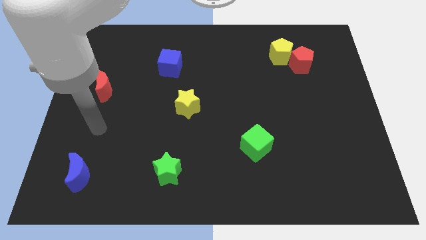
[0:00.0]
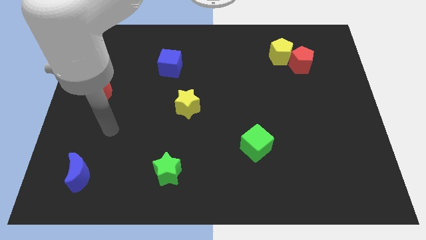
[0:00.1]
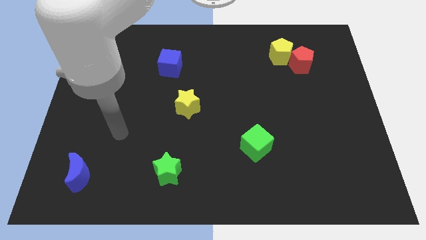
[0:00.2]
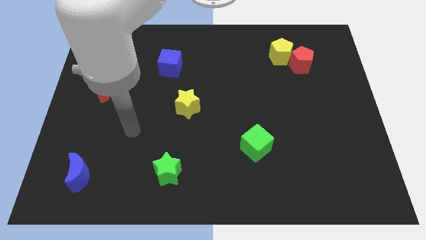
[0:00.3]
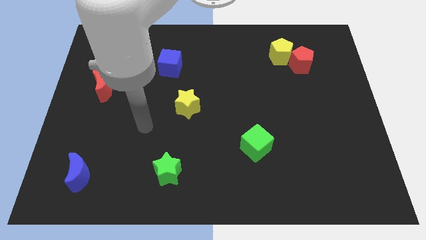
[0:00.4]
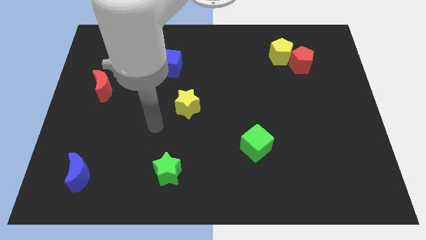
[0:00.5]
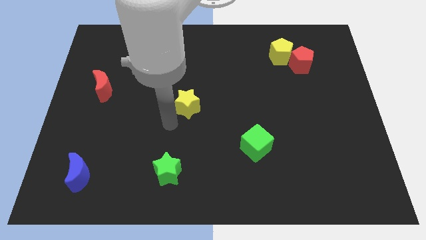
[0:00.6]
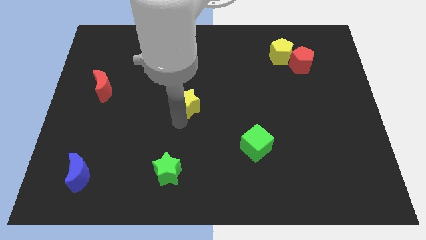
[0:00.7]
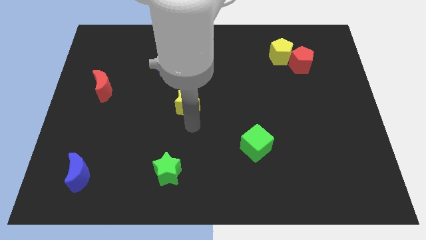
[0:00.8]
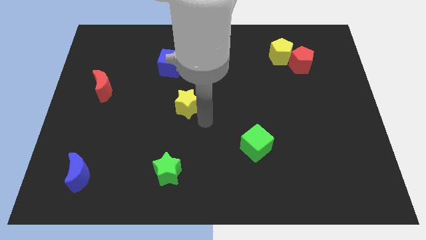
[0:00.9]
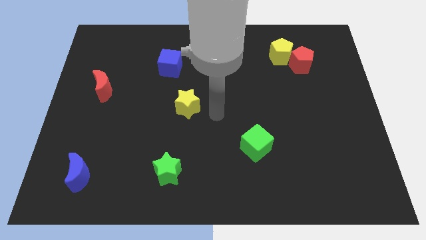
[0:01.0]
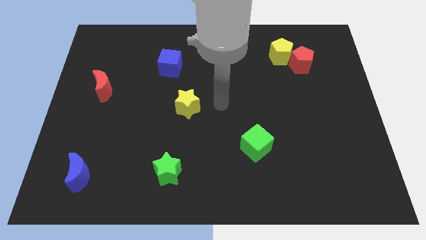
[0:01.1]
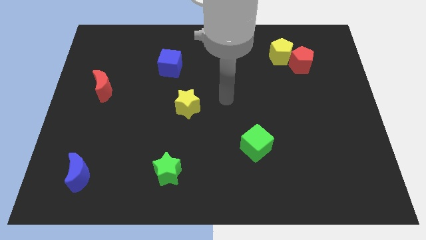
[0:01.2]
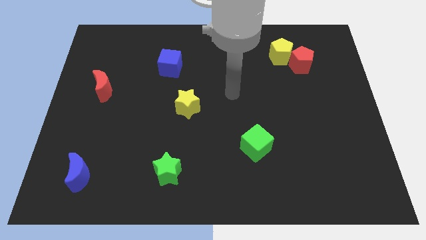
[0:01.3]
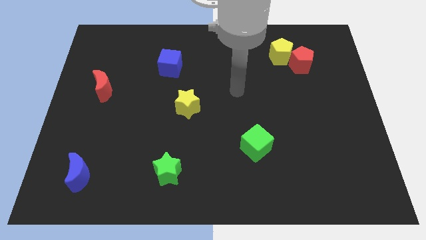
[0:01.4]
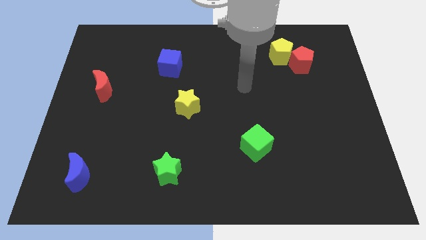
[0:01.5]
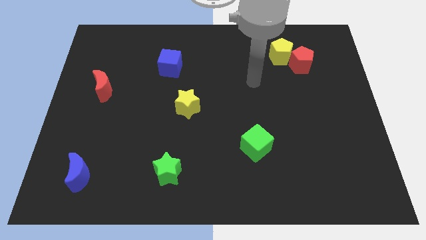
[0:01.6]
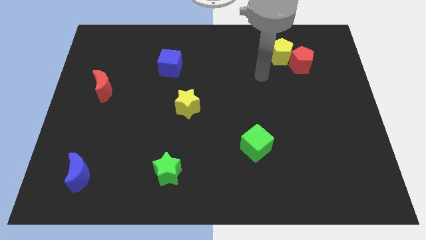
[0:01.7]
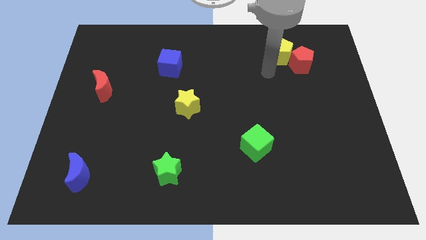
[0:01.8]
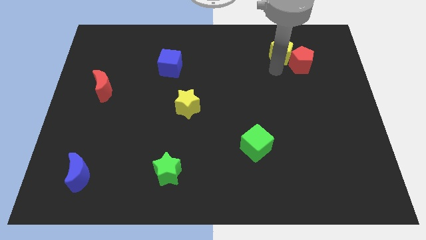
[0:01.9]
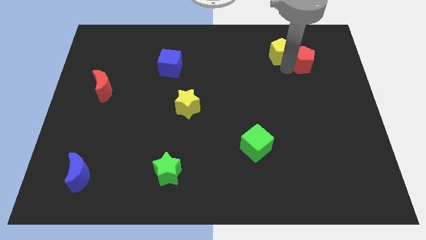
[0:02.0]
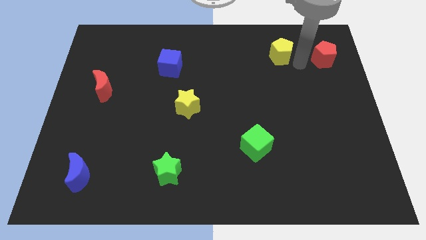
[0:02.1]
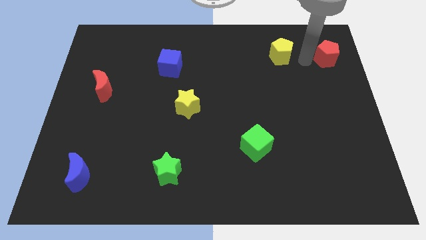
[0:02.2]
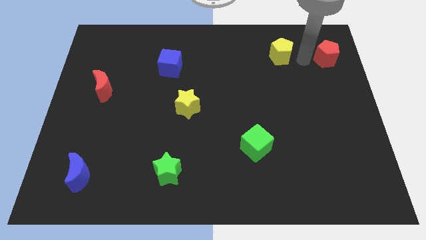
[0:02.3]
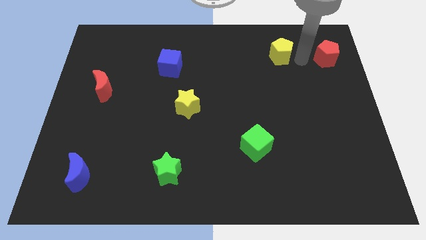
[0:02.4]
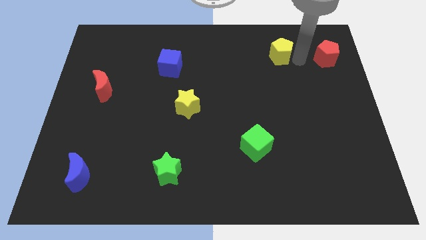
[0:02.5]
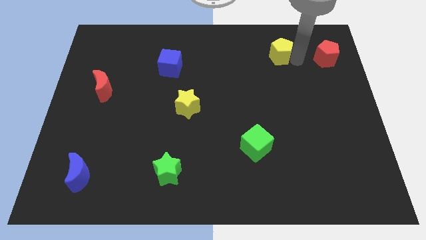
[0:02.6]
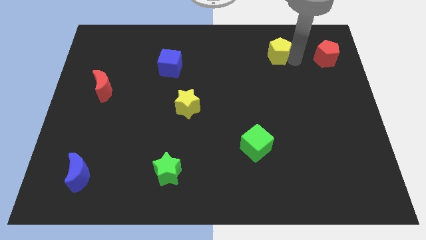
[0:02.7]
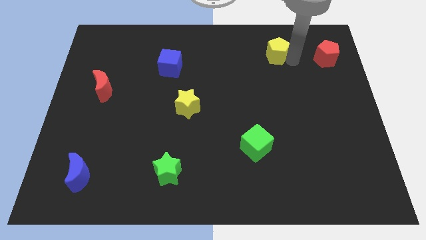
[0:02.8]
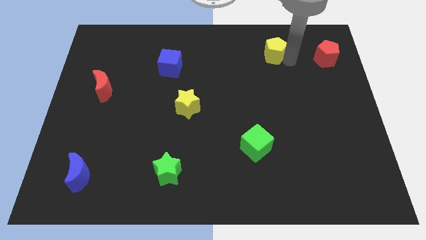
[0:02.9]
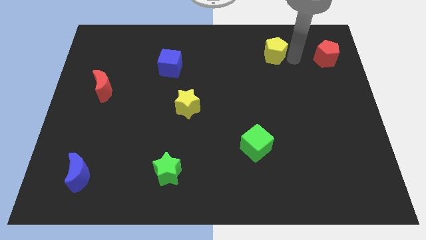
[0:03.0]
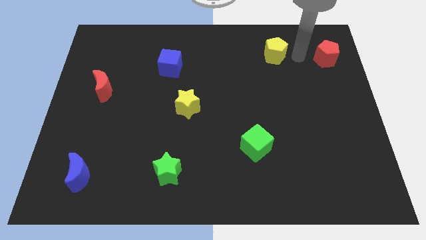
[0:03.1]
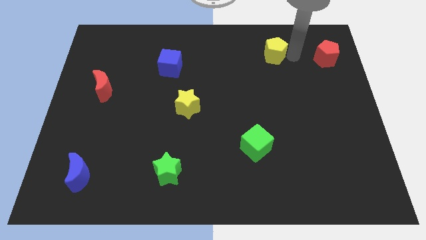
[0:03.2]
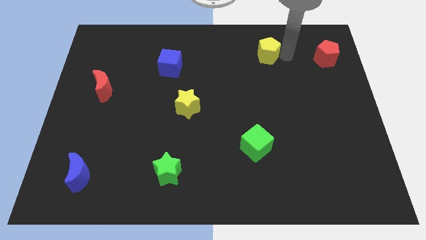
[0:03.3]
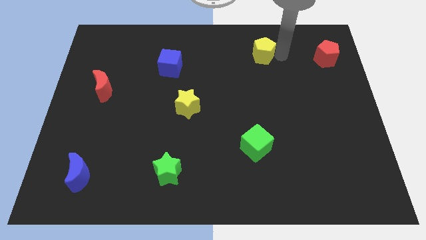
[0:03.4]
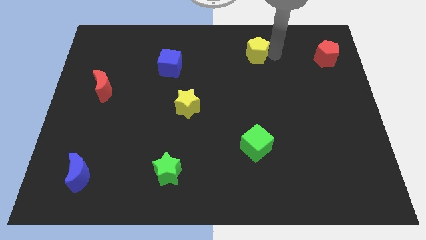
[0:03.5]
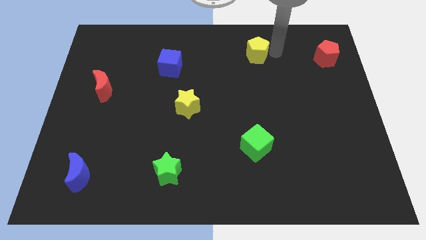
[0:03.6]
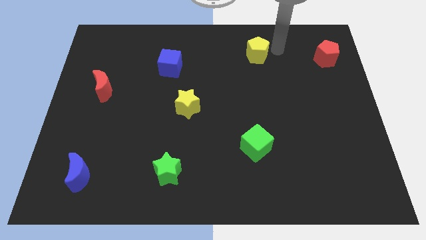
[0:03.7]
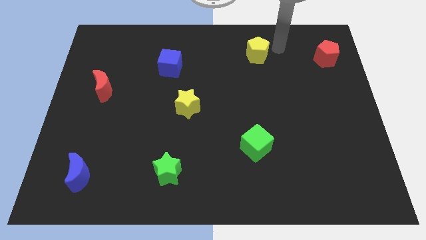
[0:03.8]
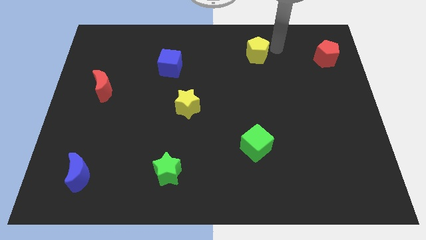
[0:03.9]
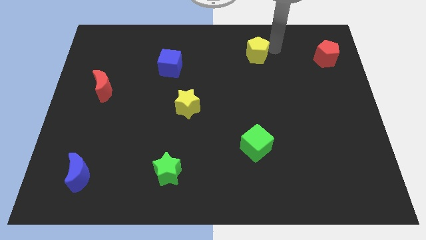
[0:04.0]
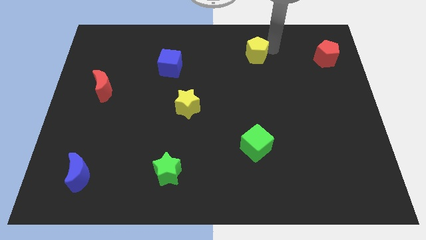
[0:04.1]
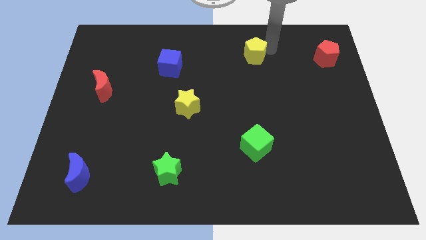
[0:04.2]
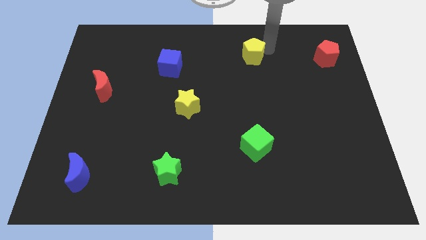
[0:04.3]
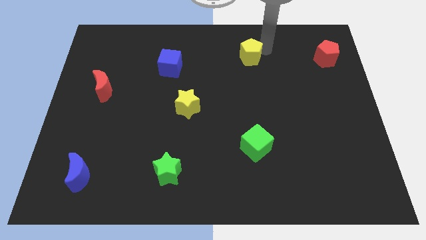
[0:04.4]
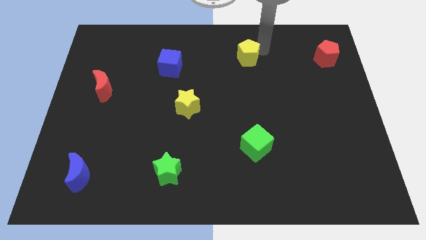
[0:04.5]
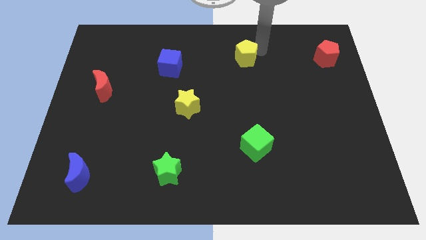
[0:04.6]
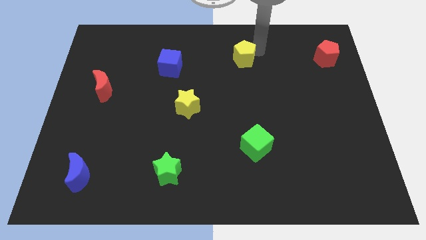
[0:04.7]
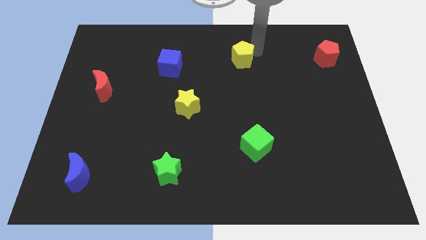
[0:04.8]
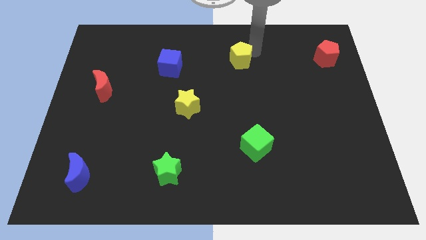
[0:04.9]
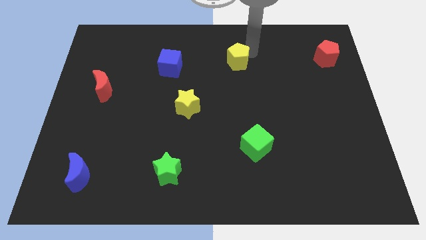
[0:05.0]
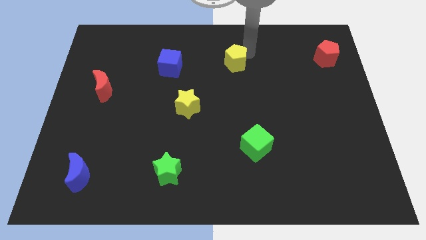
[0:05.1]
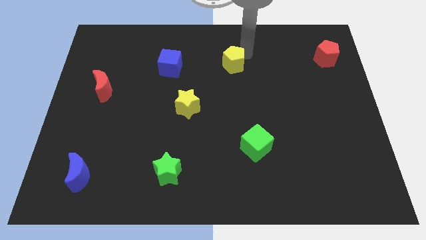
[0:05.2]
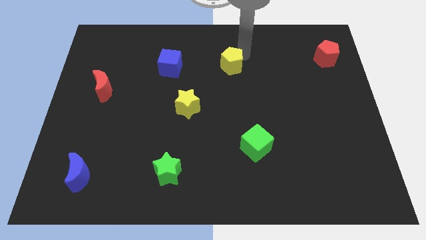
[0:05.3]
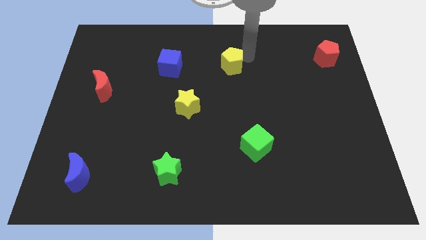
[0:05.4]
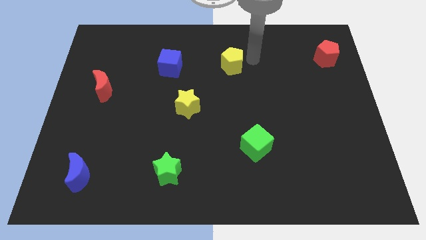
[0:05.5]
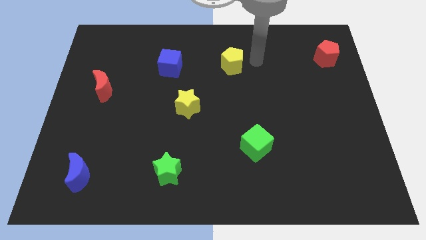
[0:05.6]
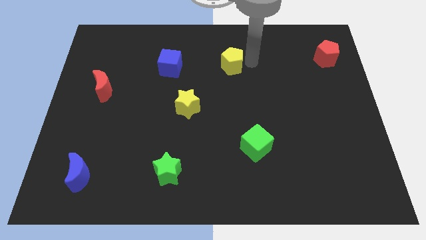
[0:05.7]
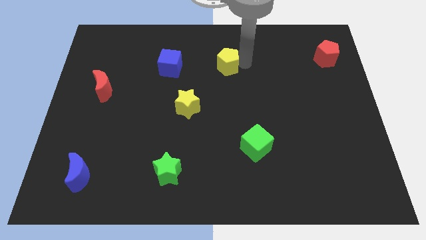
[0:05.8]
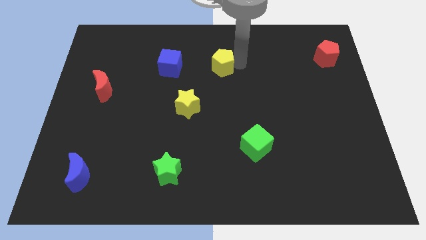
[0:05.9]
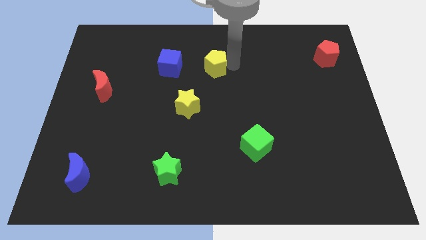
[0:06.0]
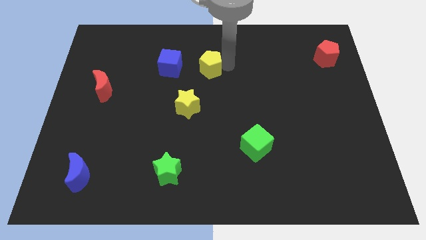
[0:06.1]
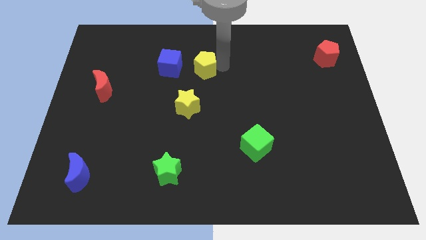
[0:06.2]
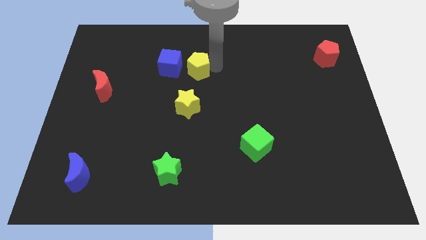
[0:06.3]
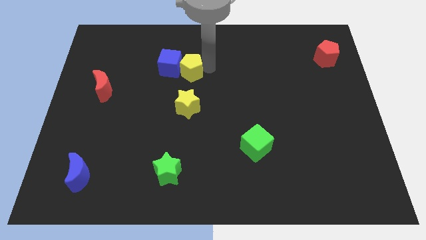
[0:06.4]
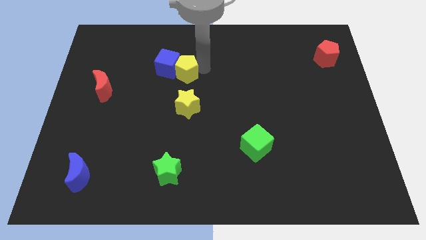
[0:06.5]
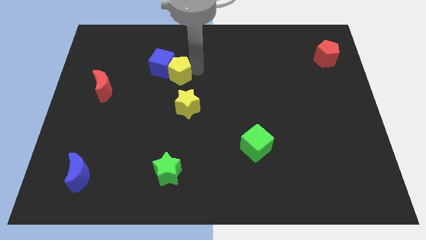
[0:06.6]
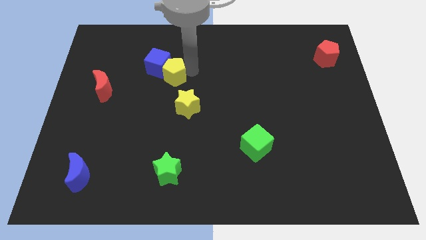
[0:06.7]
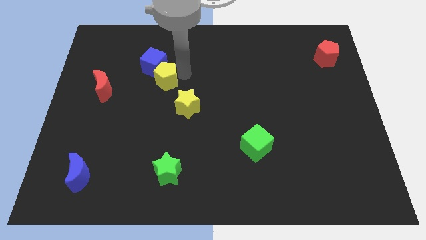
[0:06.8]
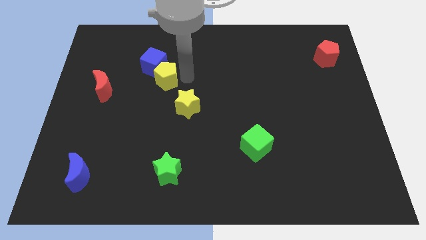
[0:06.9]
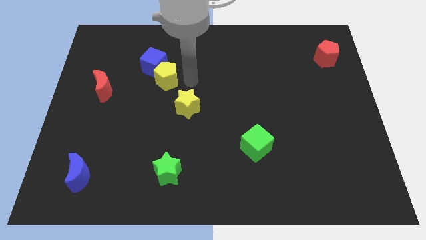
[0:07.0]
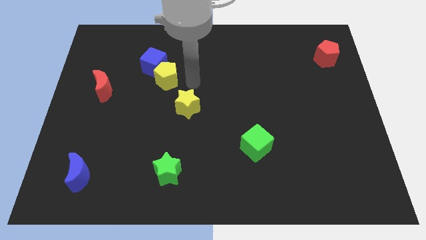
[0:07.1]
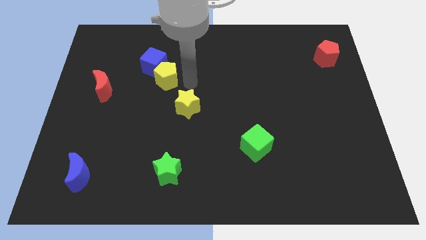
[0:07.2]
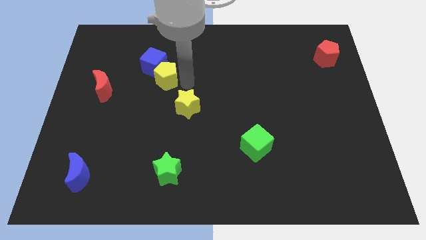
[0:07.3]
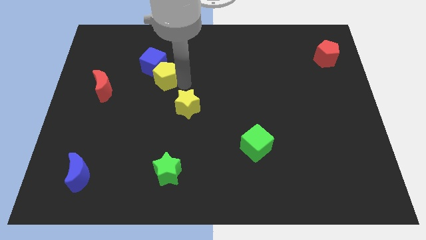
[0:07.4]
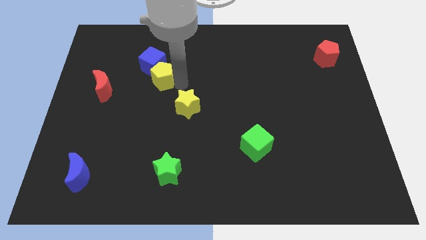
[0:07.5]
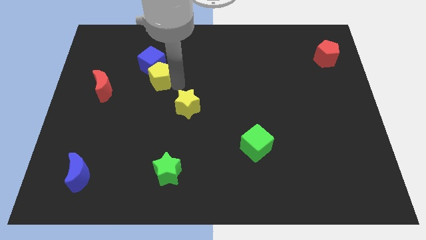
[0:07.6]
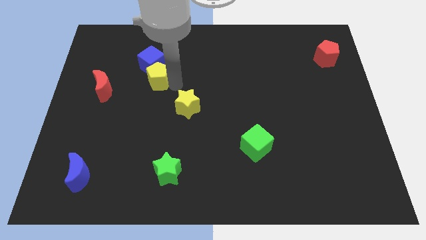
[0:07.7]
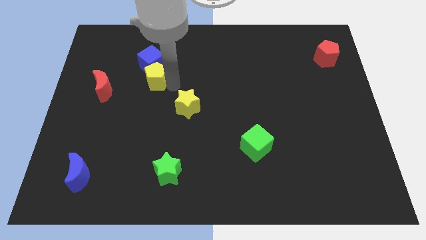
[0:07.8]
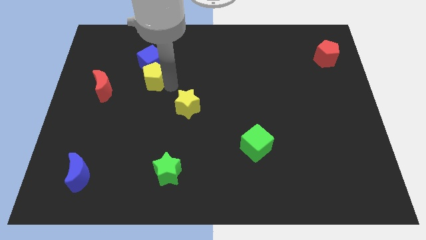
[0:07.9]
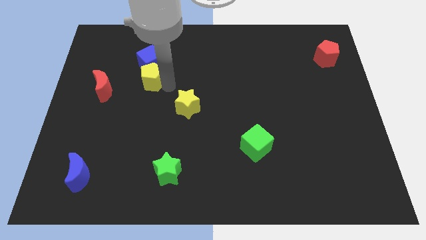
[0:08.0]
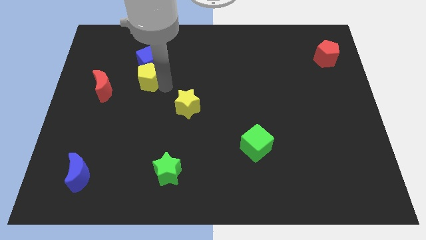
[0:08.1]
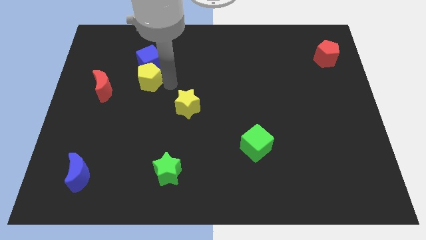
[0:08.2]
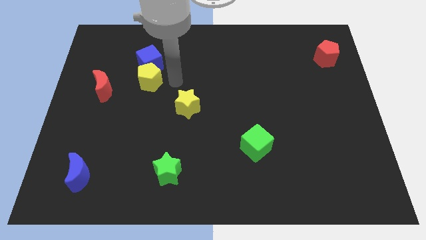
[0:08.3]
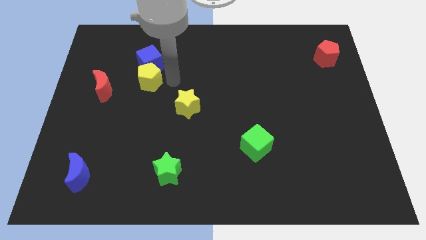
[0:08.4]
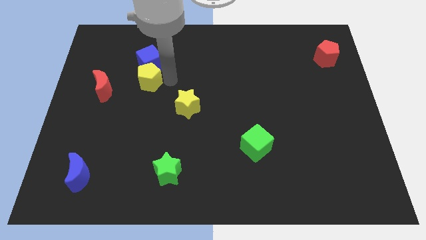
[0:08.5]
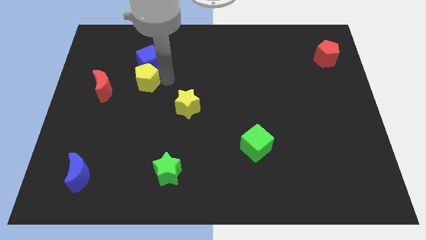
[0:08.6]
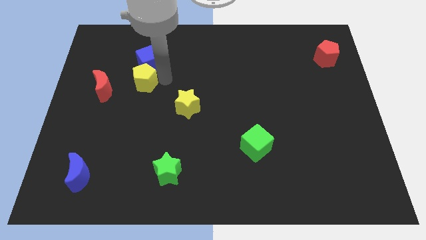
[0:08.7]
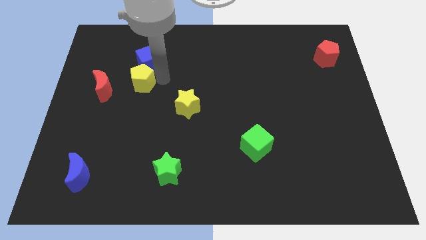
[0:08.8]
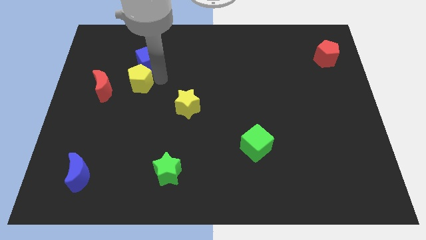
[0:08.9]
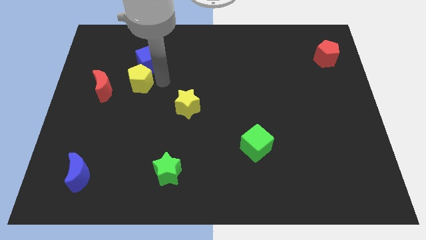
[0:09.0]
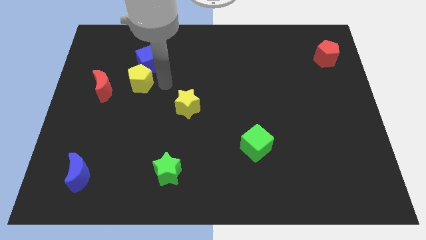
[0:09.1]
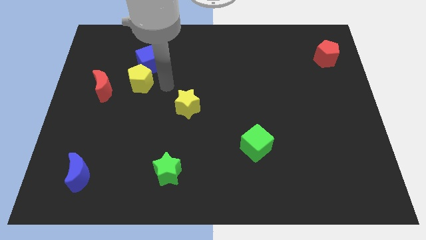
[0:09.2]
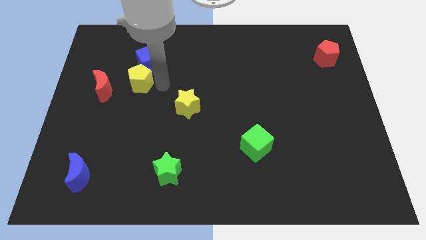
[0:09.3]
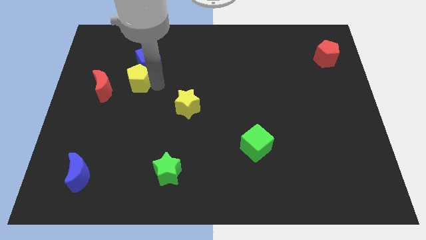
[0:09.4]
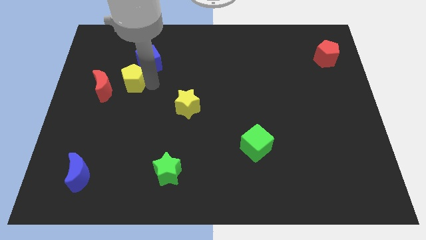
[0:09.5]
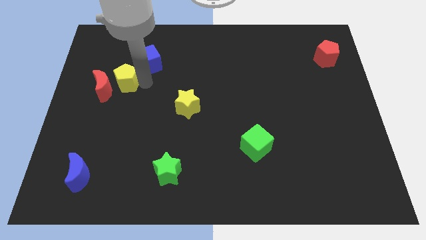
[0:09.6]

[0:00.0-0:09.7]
slide the yellow pentagon close to the red moon
